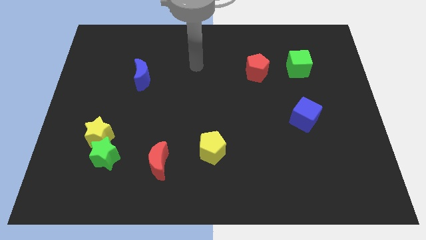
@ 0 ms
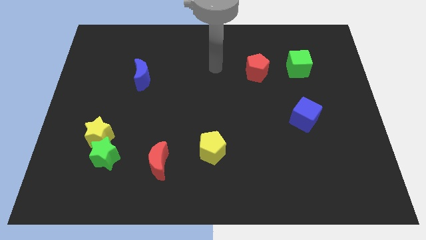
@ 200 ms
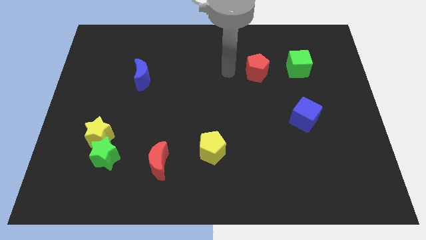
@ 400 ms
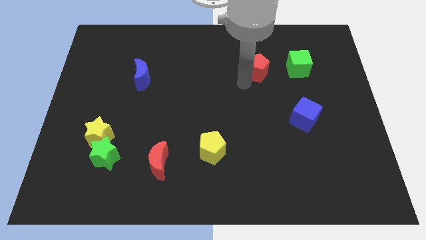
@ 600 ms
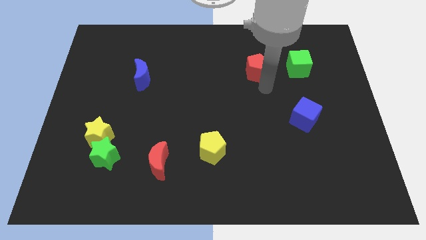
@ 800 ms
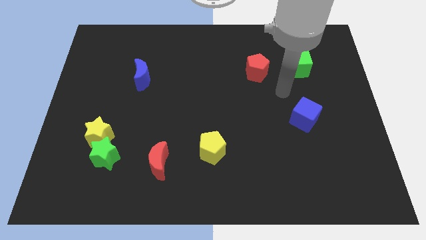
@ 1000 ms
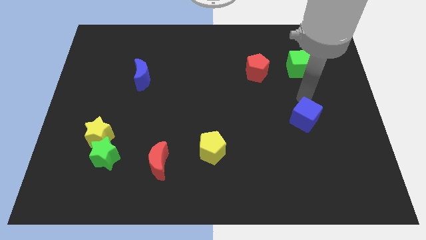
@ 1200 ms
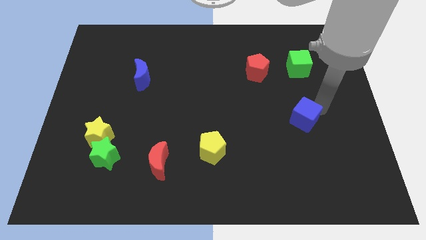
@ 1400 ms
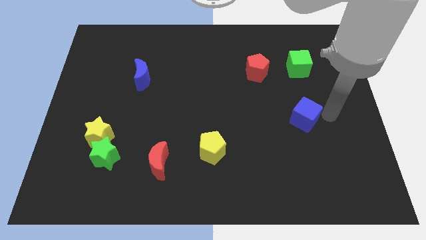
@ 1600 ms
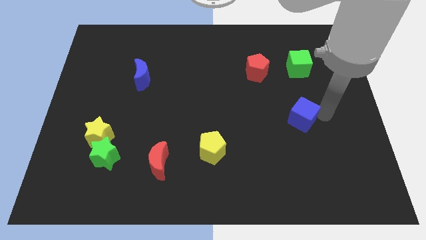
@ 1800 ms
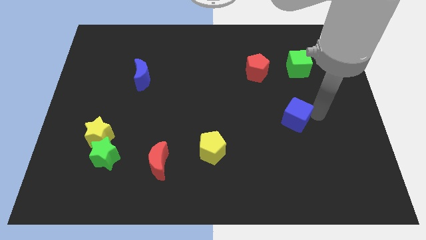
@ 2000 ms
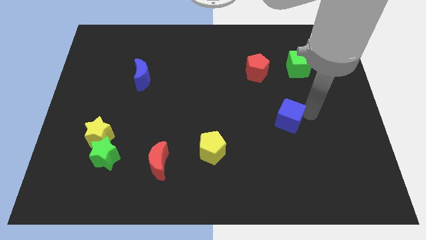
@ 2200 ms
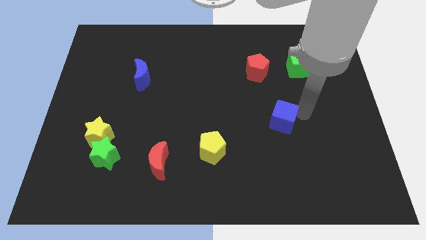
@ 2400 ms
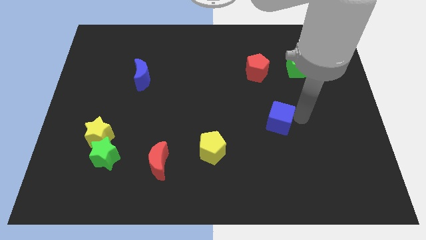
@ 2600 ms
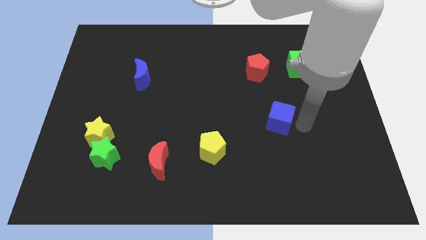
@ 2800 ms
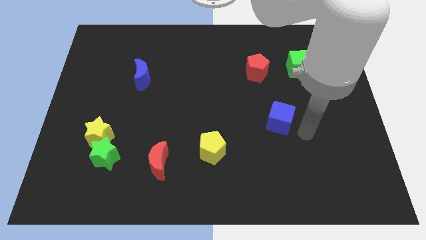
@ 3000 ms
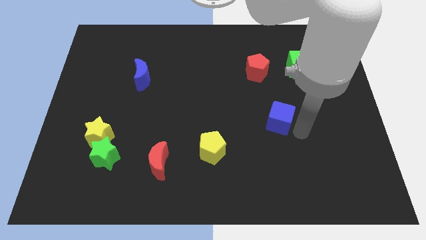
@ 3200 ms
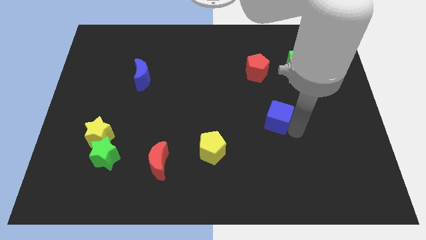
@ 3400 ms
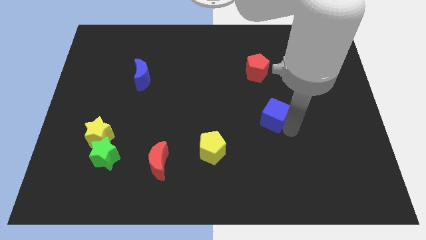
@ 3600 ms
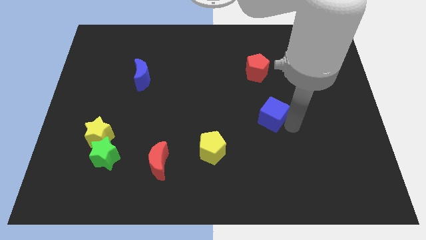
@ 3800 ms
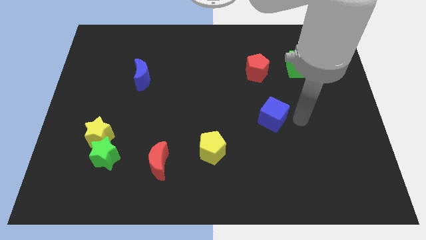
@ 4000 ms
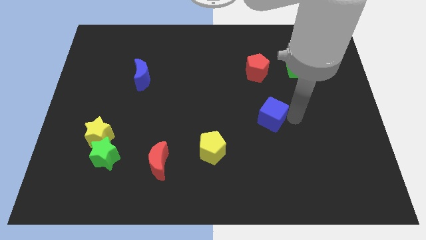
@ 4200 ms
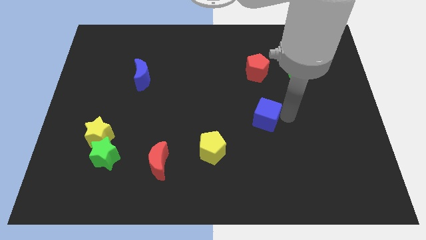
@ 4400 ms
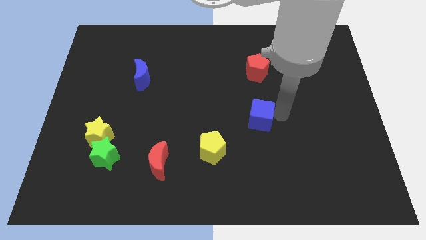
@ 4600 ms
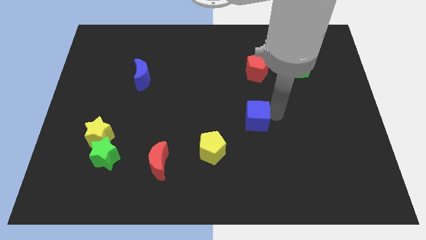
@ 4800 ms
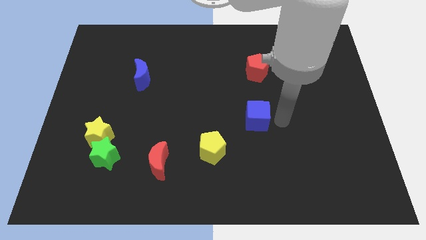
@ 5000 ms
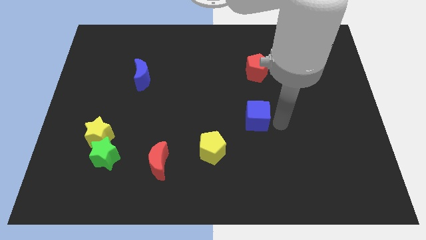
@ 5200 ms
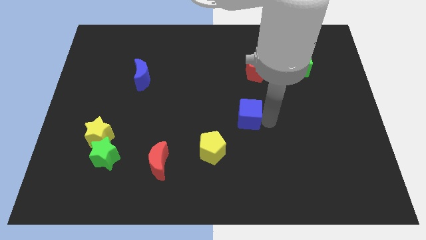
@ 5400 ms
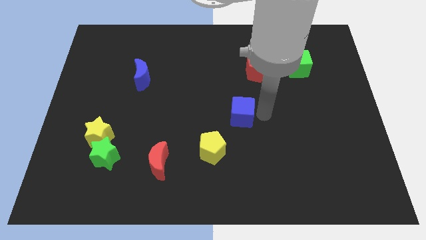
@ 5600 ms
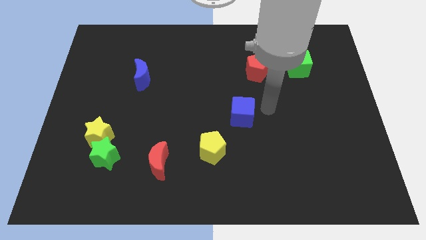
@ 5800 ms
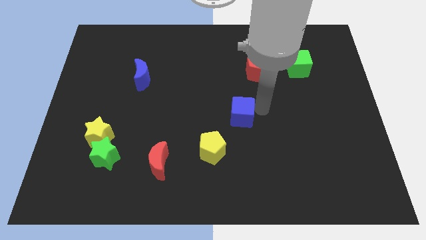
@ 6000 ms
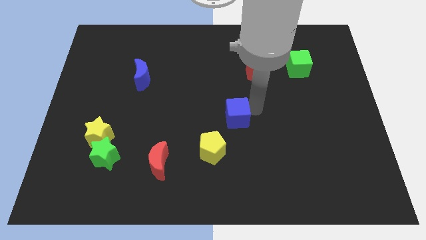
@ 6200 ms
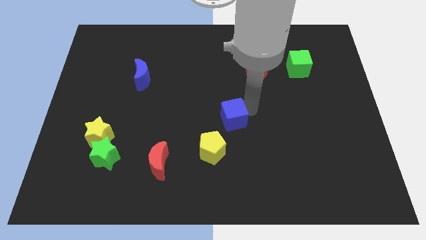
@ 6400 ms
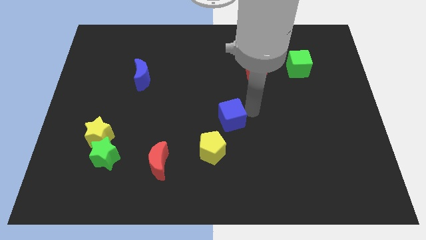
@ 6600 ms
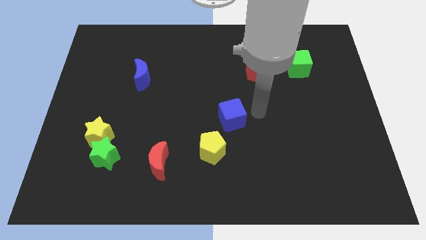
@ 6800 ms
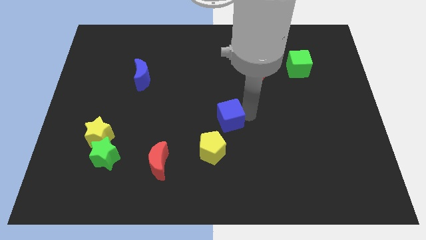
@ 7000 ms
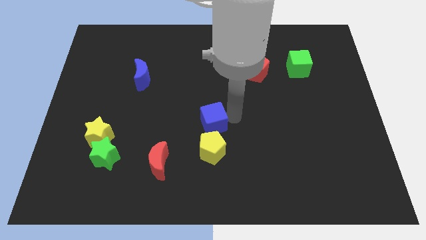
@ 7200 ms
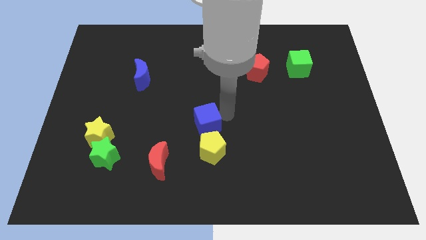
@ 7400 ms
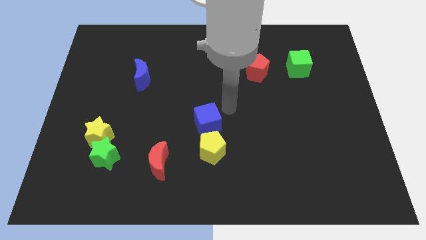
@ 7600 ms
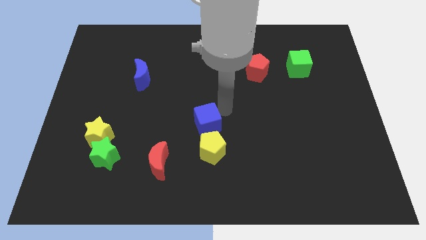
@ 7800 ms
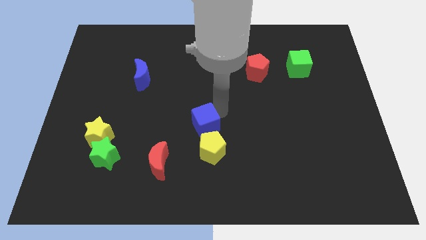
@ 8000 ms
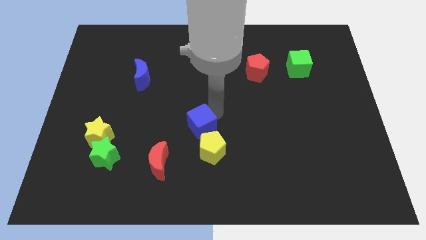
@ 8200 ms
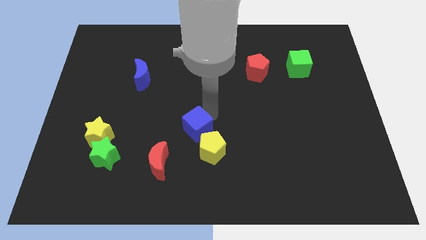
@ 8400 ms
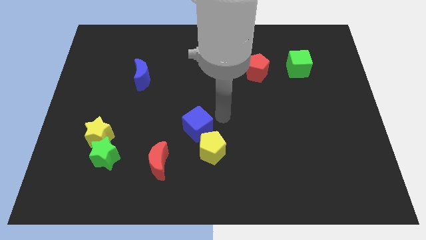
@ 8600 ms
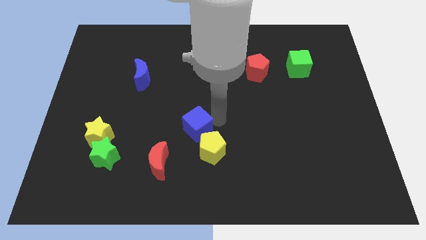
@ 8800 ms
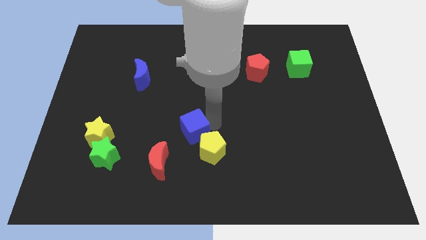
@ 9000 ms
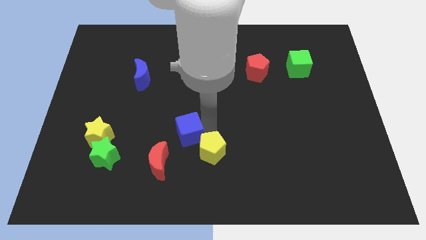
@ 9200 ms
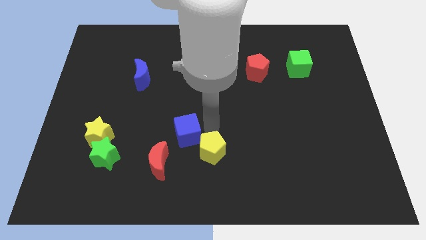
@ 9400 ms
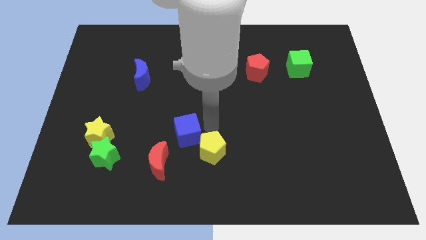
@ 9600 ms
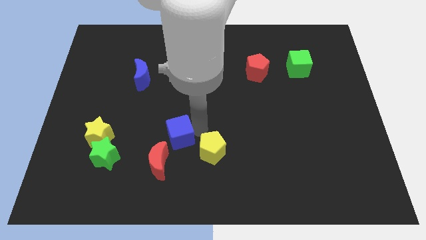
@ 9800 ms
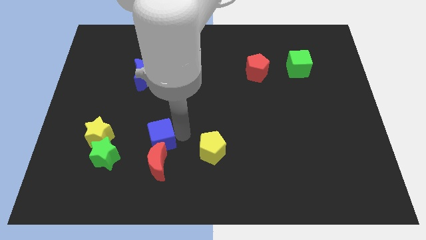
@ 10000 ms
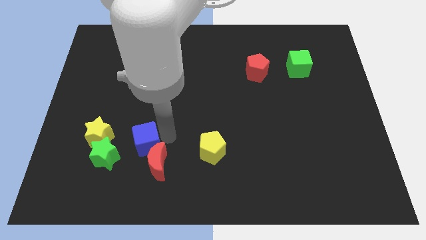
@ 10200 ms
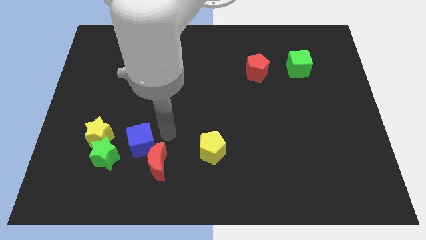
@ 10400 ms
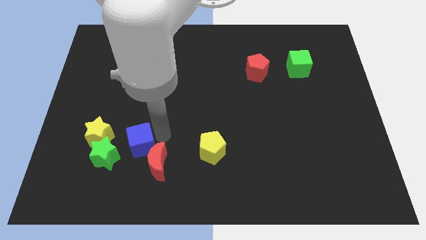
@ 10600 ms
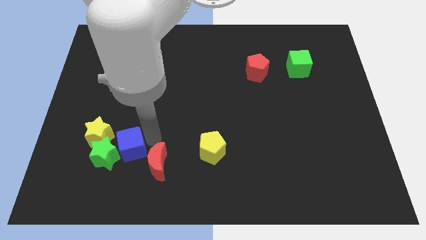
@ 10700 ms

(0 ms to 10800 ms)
move the blue cube close to the green star

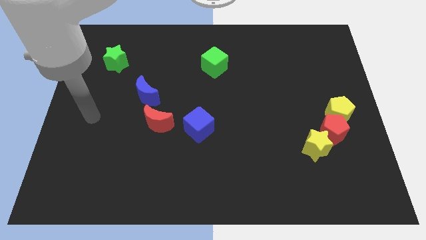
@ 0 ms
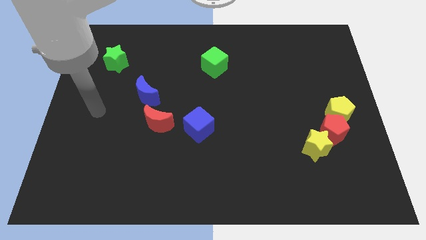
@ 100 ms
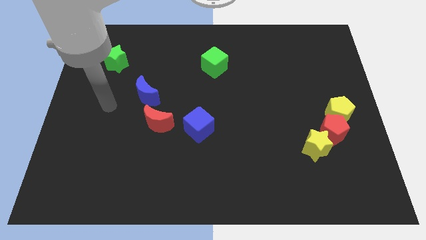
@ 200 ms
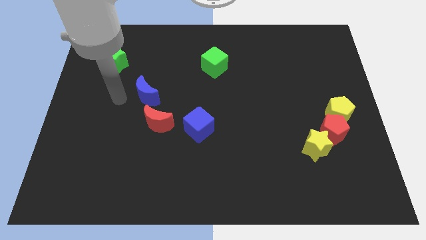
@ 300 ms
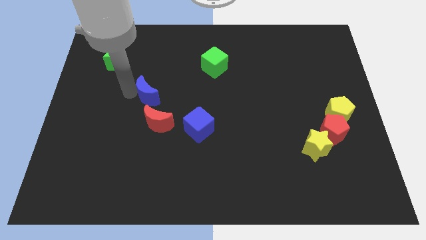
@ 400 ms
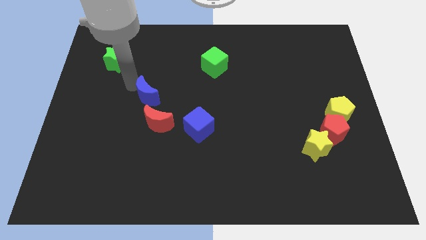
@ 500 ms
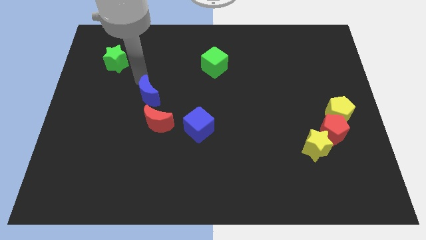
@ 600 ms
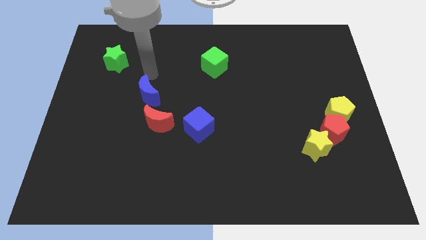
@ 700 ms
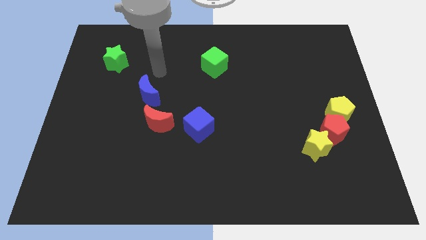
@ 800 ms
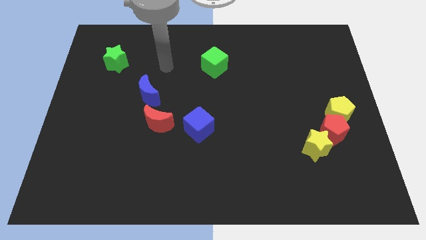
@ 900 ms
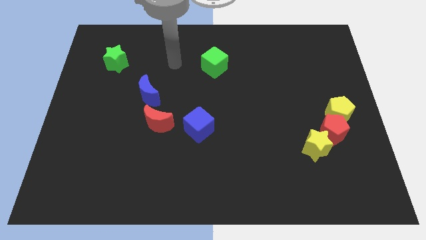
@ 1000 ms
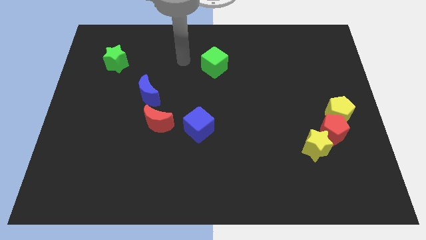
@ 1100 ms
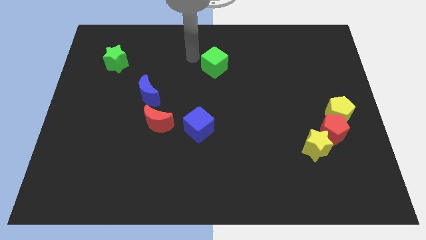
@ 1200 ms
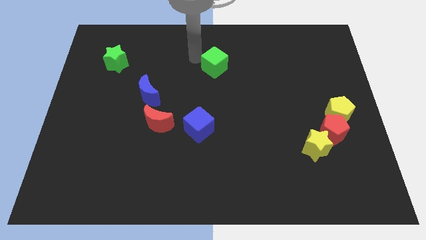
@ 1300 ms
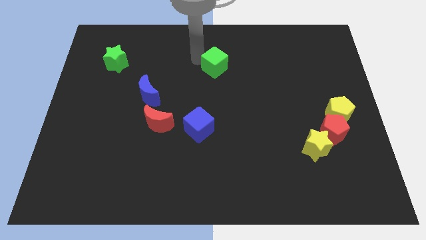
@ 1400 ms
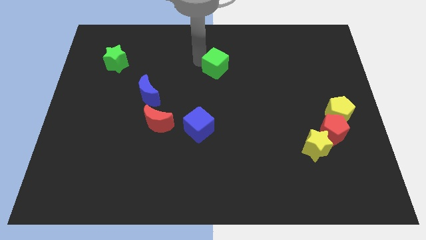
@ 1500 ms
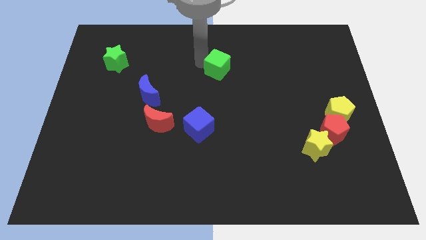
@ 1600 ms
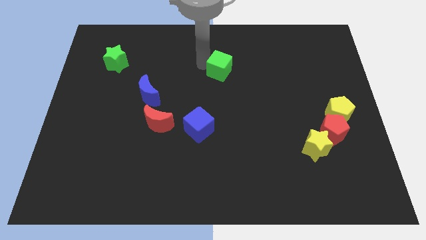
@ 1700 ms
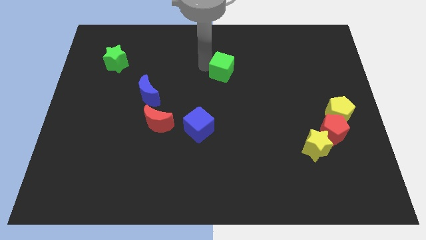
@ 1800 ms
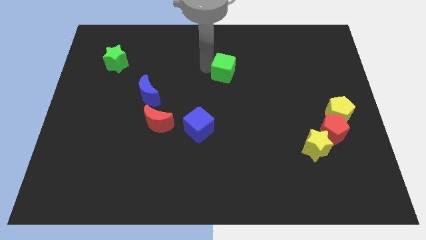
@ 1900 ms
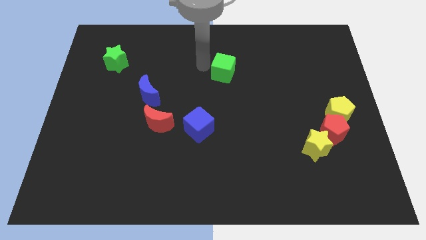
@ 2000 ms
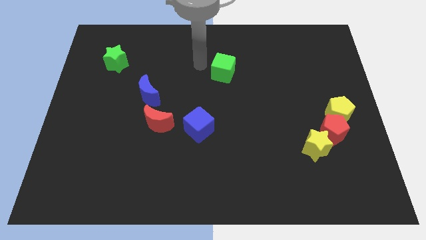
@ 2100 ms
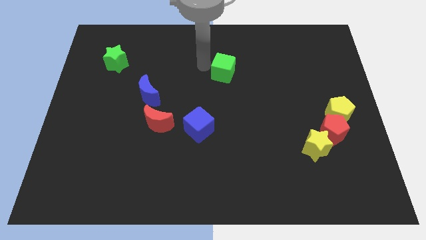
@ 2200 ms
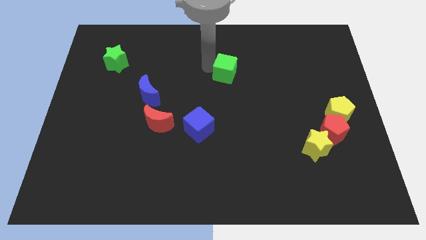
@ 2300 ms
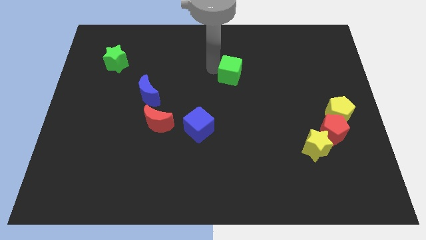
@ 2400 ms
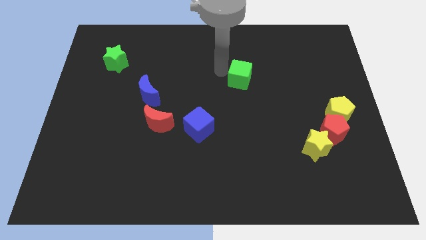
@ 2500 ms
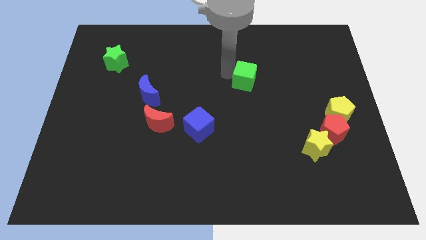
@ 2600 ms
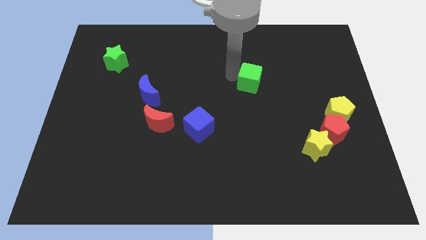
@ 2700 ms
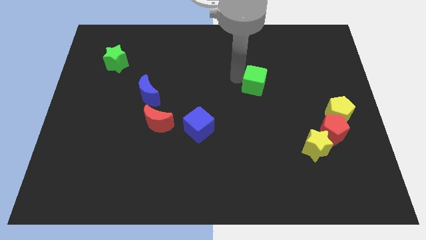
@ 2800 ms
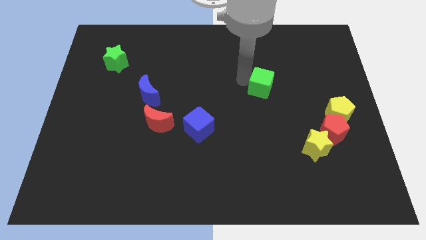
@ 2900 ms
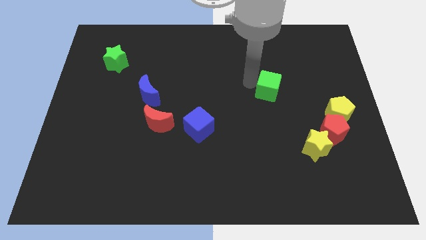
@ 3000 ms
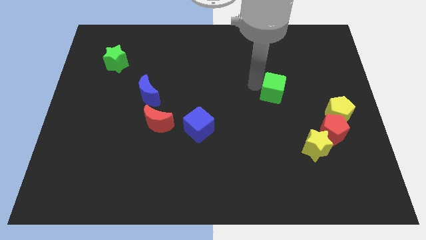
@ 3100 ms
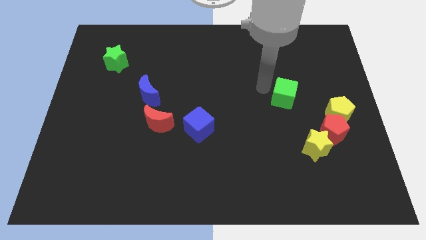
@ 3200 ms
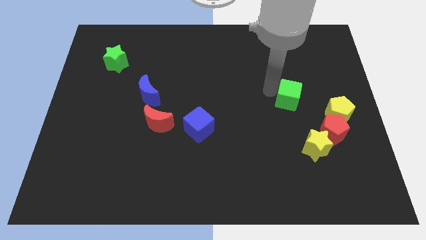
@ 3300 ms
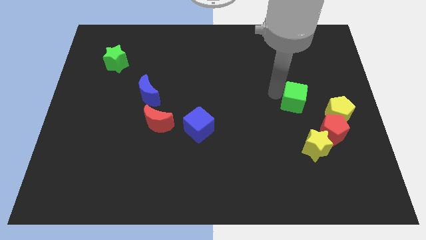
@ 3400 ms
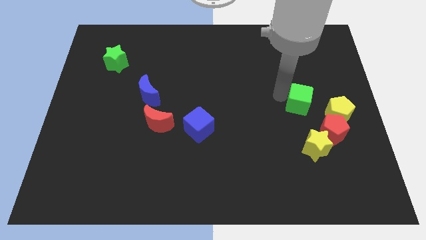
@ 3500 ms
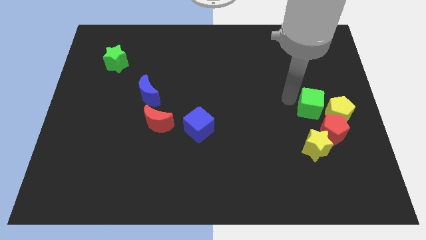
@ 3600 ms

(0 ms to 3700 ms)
slide the green cube to the yellow pentagon
